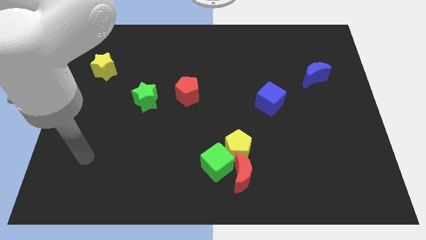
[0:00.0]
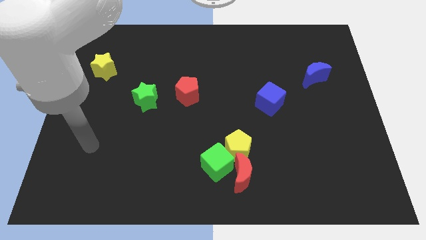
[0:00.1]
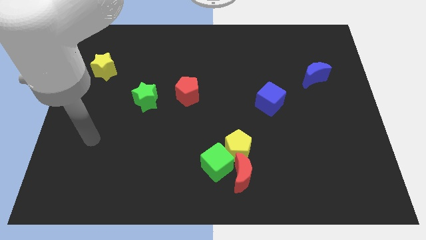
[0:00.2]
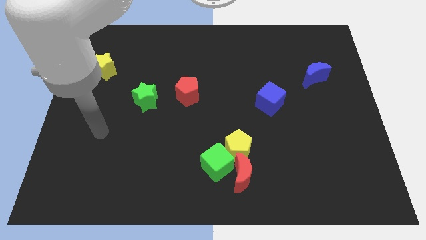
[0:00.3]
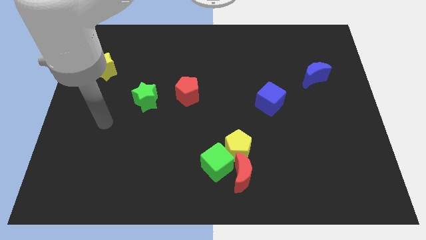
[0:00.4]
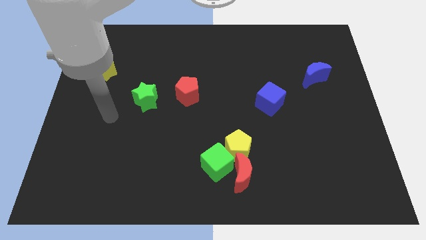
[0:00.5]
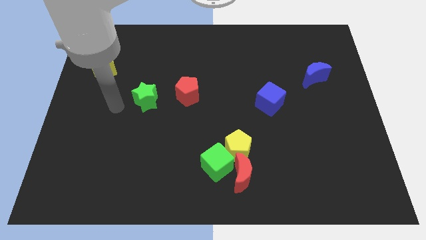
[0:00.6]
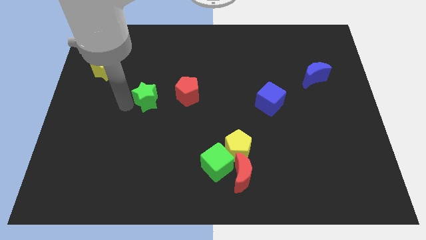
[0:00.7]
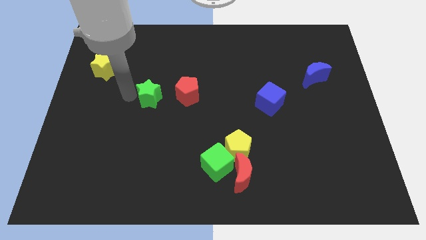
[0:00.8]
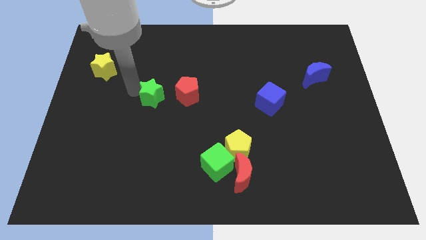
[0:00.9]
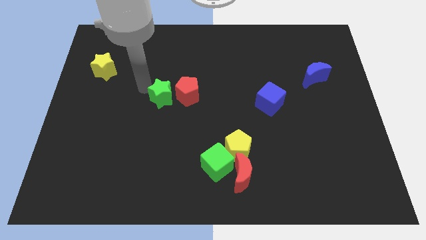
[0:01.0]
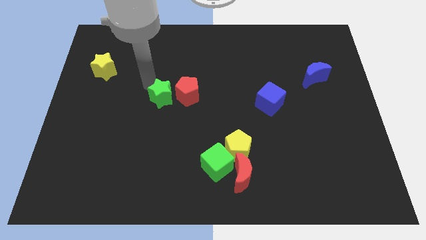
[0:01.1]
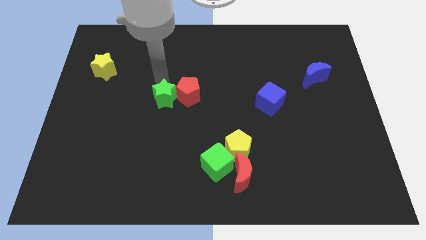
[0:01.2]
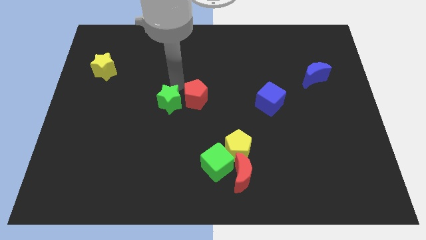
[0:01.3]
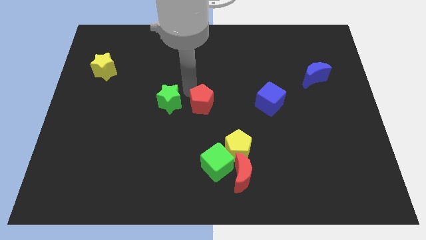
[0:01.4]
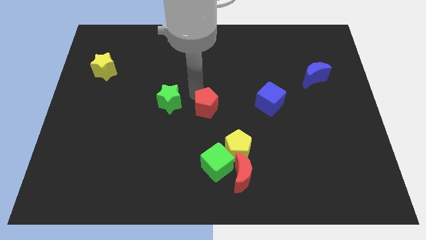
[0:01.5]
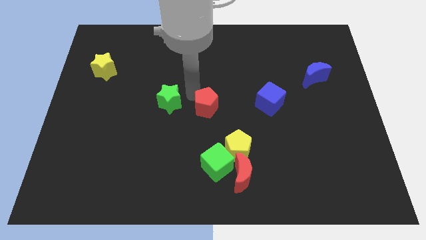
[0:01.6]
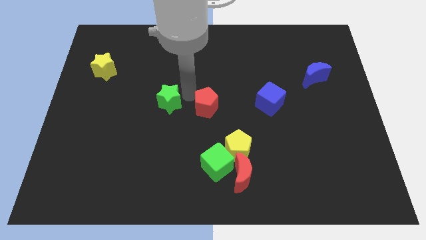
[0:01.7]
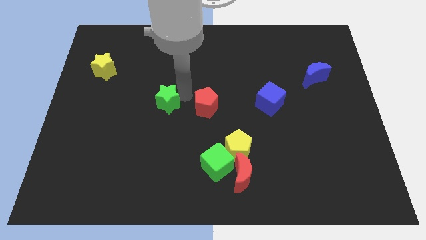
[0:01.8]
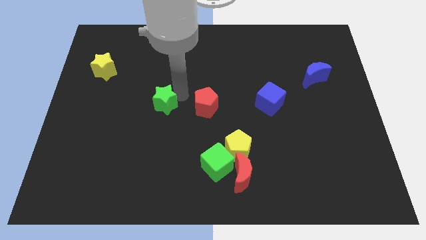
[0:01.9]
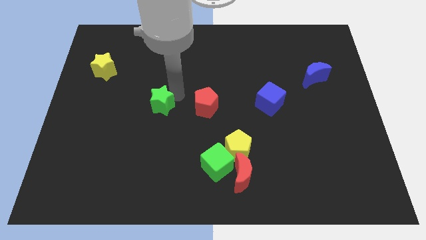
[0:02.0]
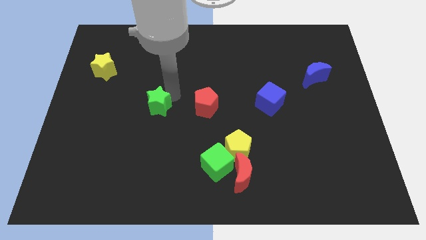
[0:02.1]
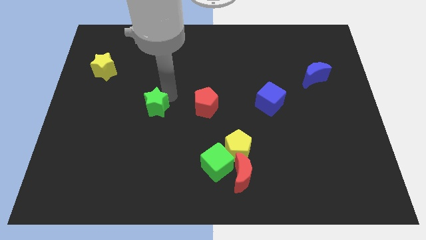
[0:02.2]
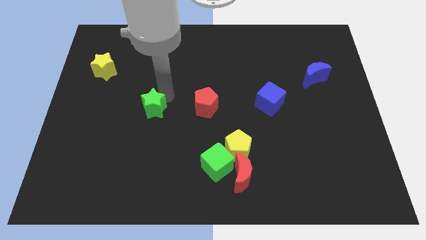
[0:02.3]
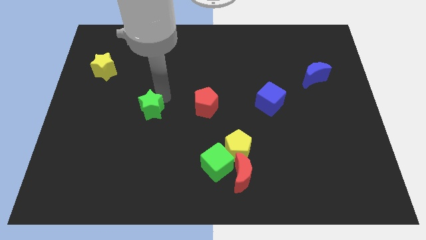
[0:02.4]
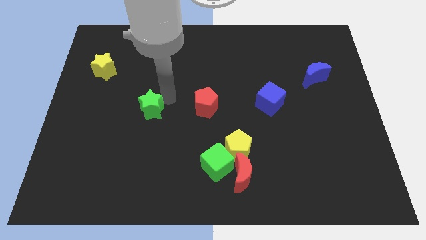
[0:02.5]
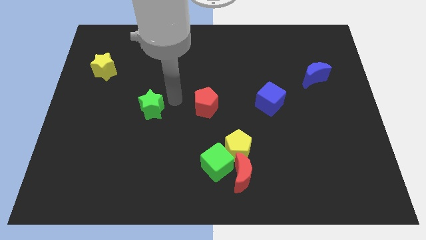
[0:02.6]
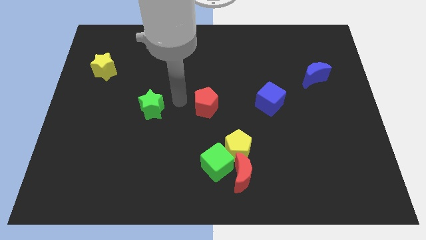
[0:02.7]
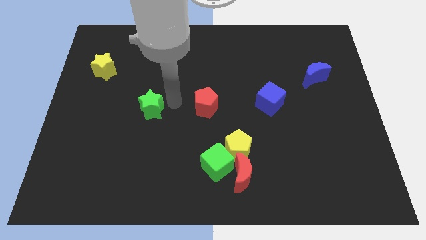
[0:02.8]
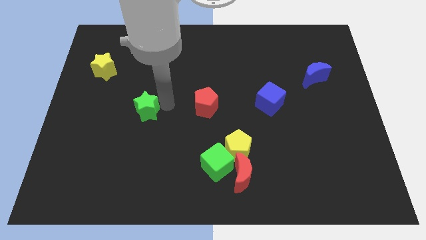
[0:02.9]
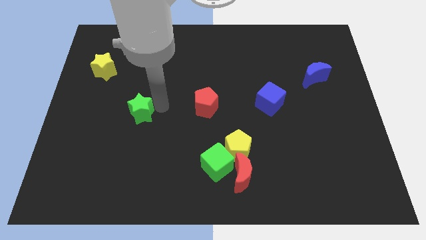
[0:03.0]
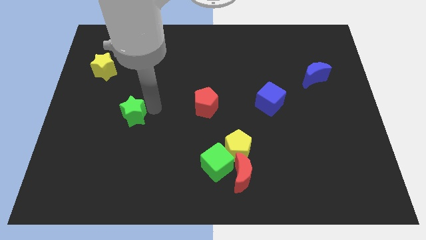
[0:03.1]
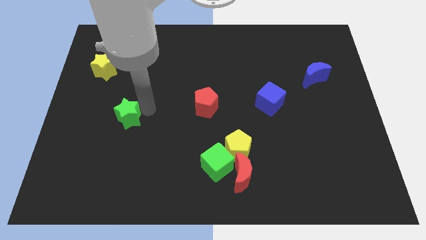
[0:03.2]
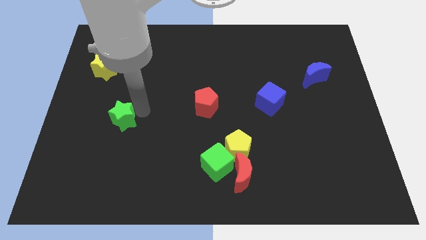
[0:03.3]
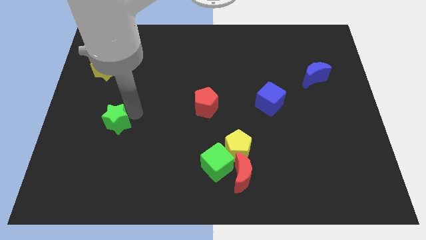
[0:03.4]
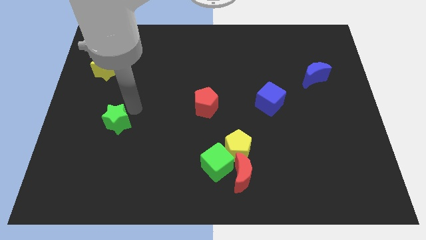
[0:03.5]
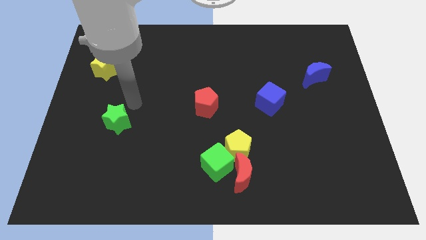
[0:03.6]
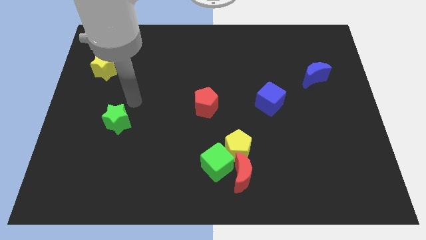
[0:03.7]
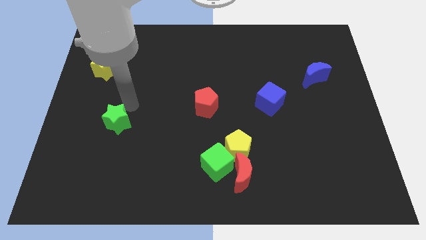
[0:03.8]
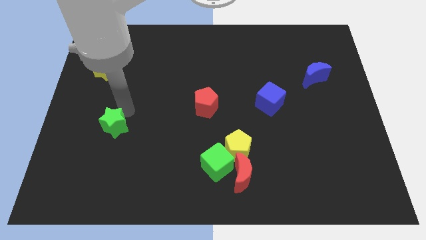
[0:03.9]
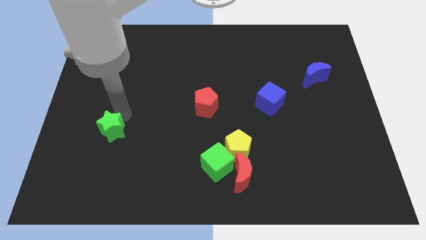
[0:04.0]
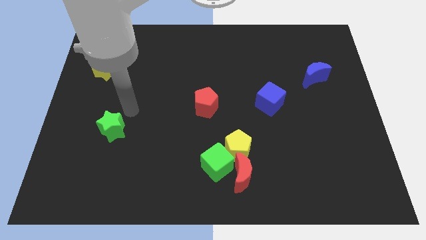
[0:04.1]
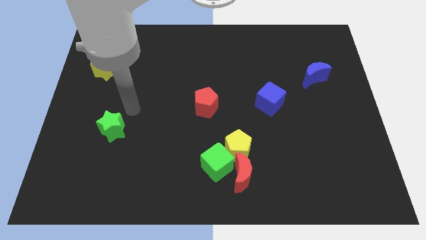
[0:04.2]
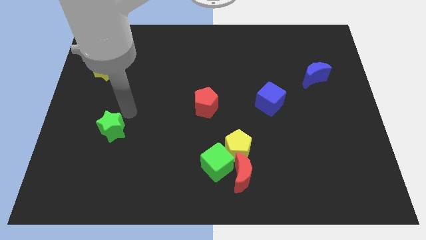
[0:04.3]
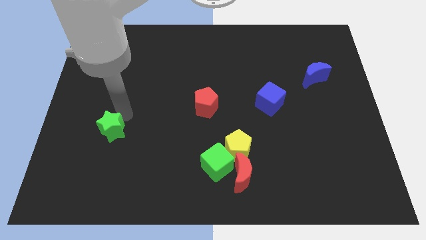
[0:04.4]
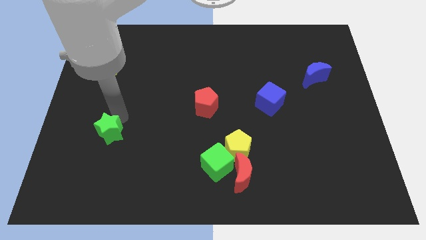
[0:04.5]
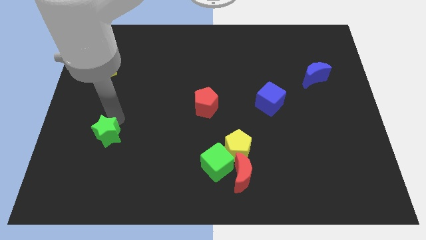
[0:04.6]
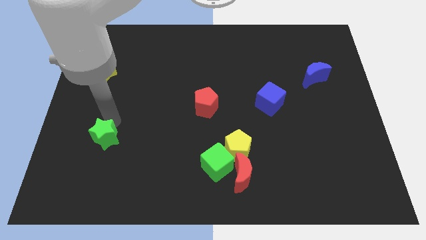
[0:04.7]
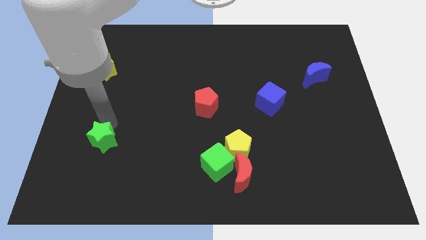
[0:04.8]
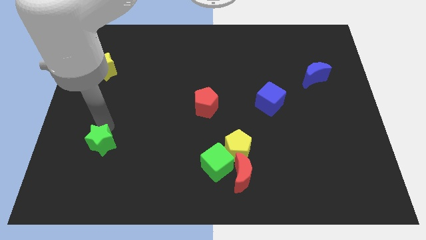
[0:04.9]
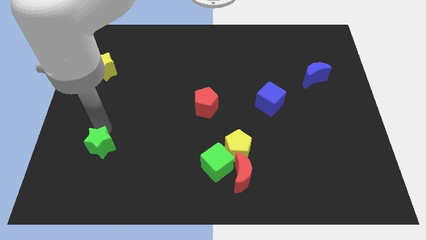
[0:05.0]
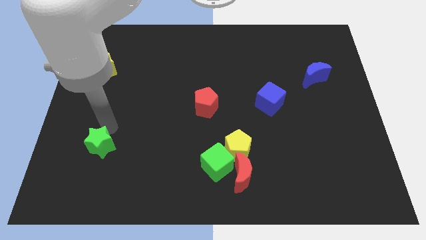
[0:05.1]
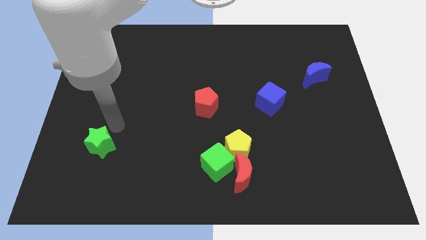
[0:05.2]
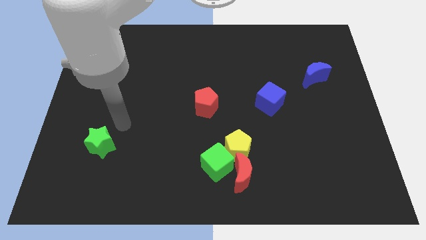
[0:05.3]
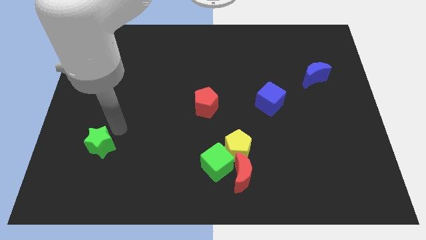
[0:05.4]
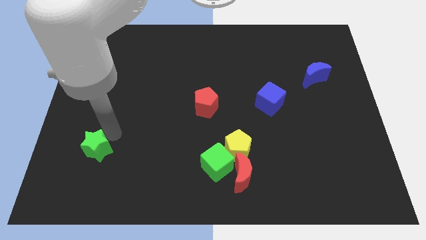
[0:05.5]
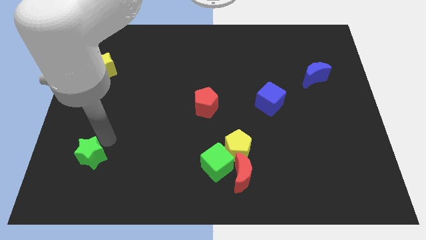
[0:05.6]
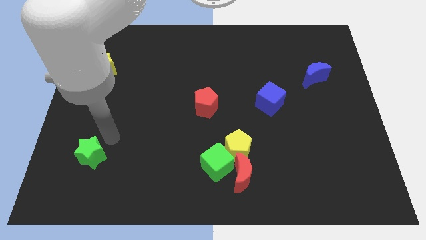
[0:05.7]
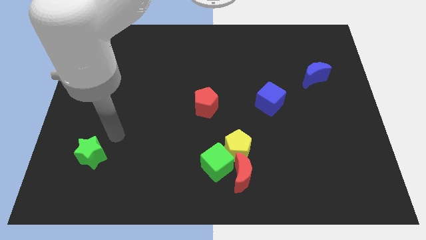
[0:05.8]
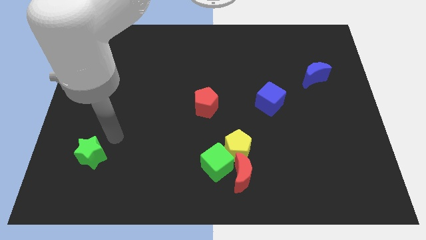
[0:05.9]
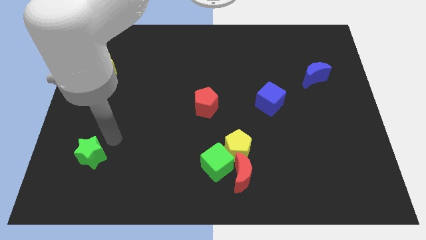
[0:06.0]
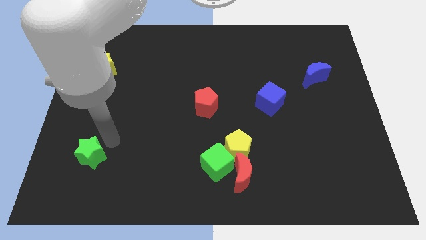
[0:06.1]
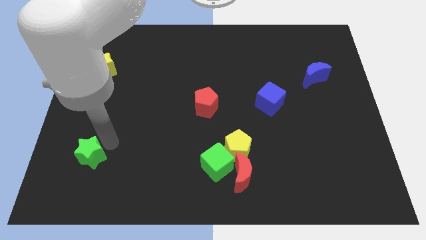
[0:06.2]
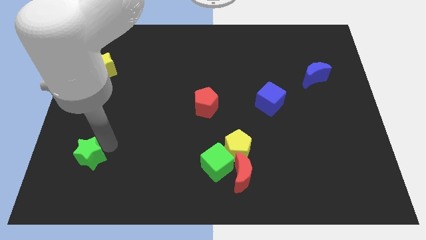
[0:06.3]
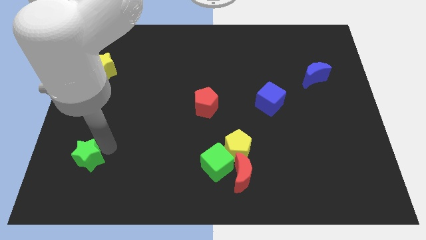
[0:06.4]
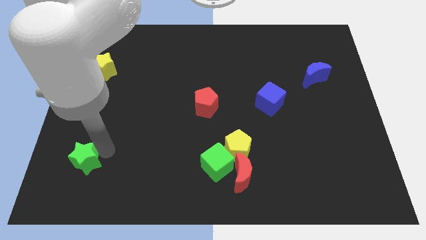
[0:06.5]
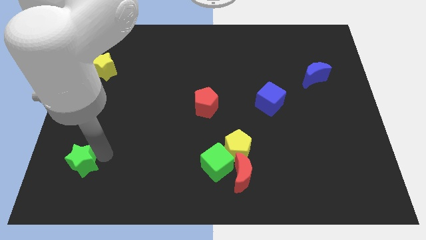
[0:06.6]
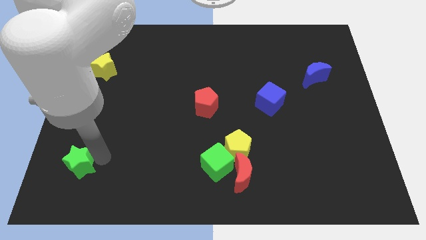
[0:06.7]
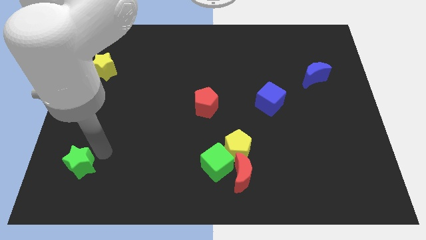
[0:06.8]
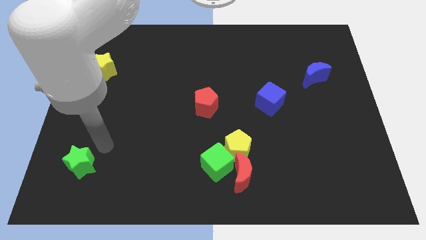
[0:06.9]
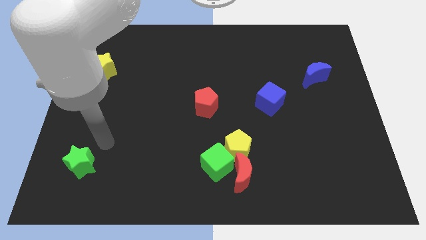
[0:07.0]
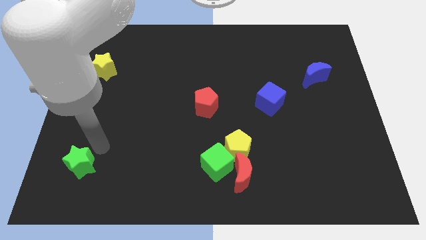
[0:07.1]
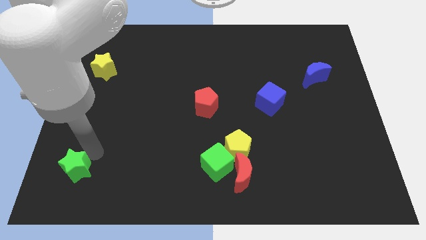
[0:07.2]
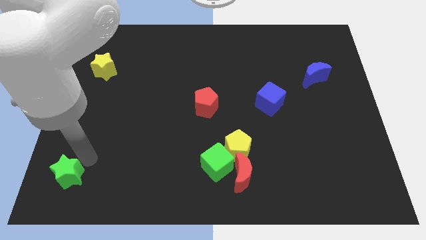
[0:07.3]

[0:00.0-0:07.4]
put the green star to the lower left corner
